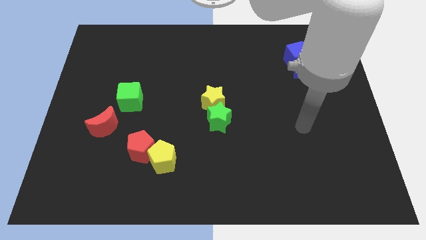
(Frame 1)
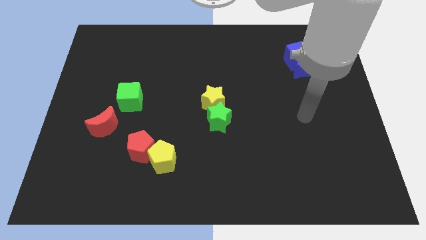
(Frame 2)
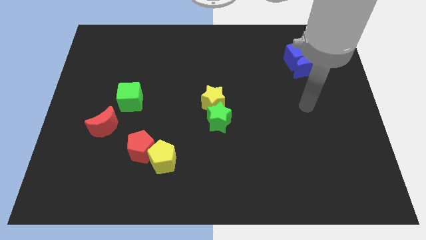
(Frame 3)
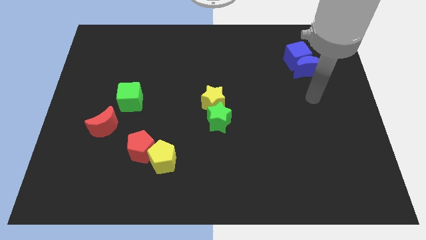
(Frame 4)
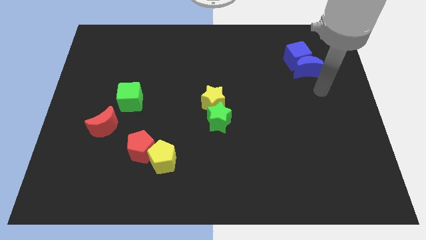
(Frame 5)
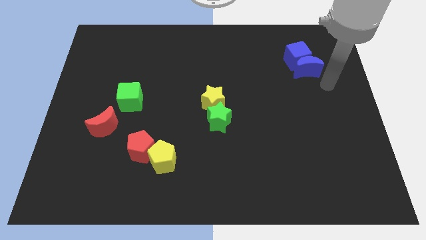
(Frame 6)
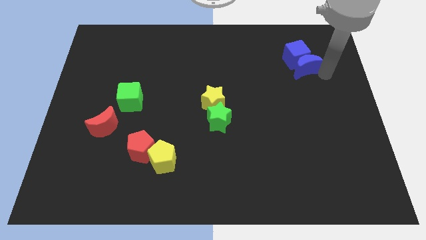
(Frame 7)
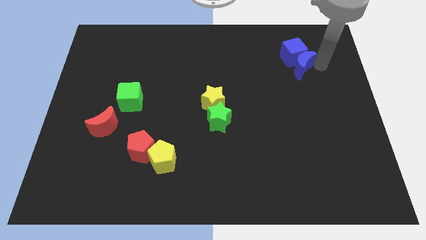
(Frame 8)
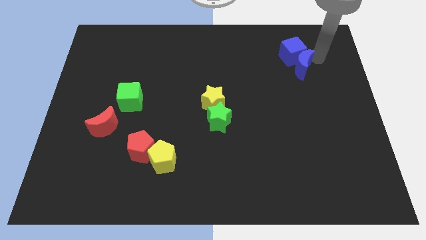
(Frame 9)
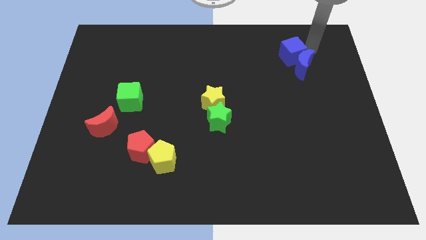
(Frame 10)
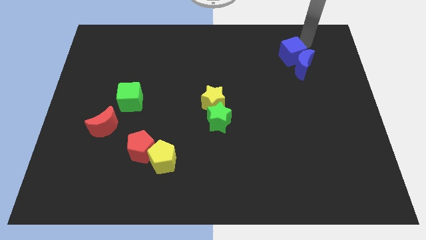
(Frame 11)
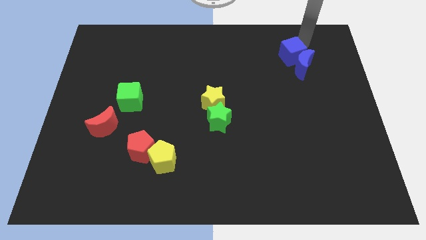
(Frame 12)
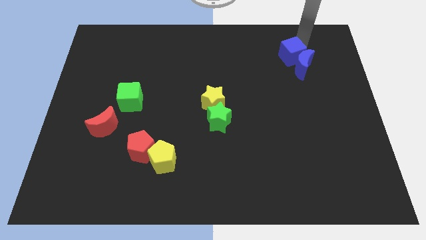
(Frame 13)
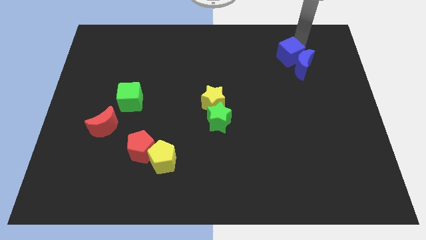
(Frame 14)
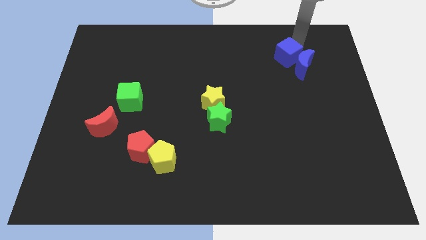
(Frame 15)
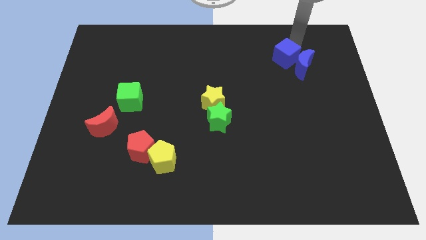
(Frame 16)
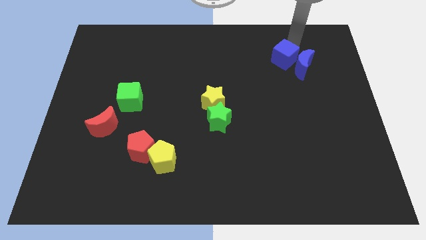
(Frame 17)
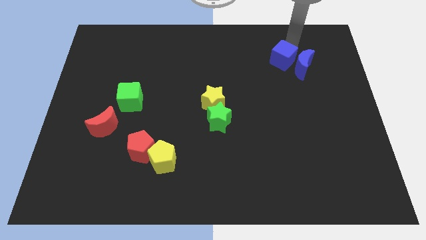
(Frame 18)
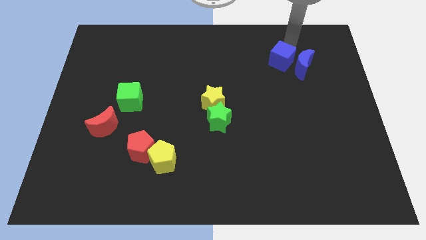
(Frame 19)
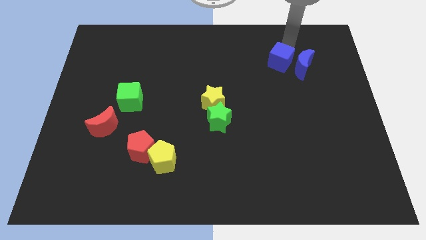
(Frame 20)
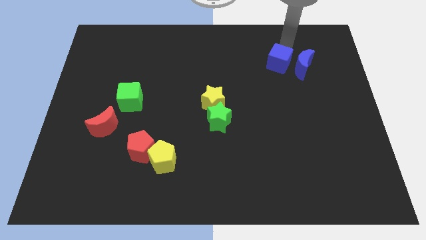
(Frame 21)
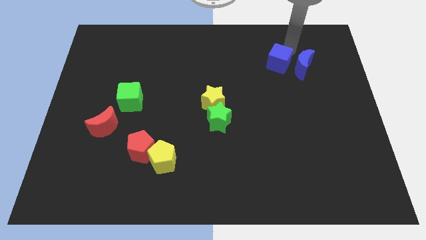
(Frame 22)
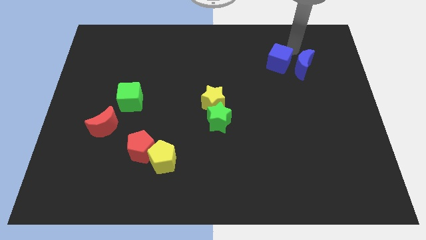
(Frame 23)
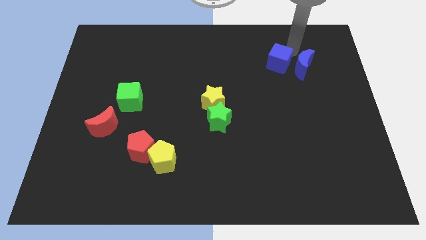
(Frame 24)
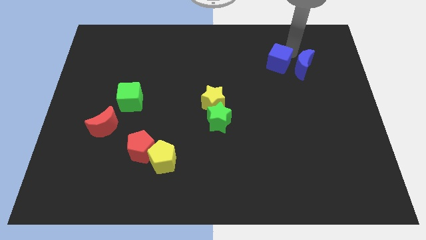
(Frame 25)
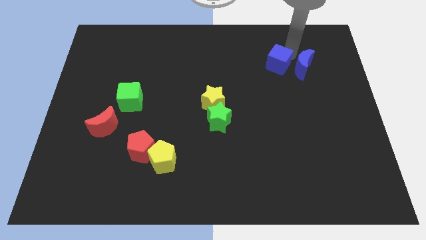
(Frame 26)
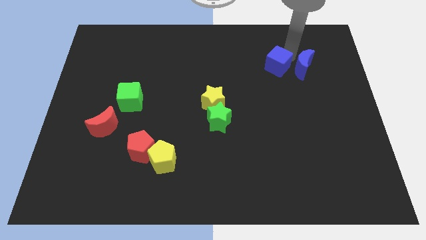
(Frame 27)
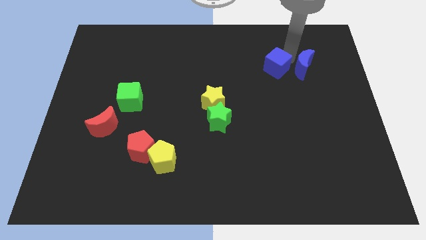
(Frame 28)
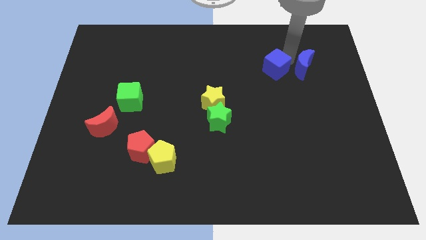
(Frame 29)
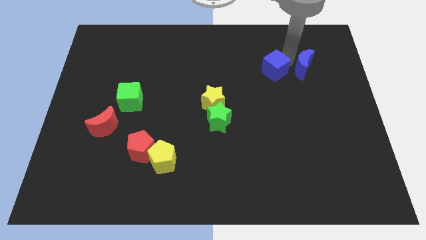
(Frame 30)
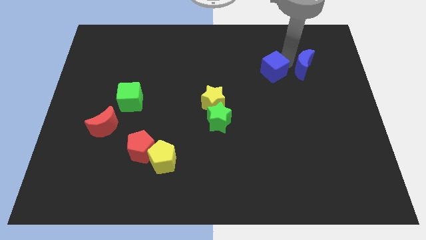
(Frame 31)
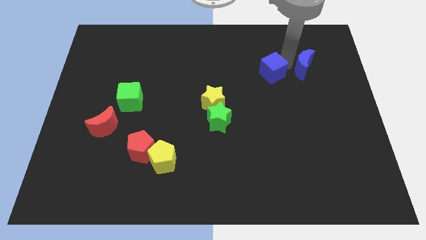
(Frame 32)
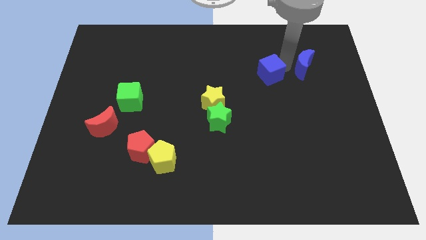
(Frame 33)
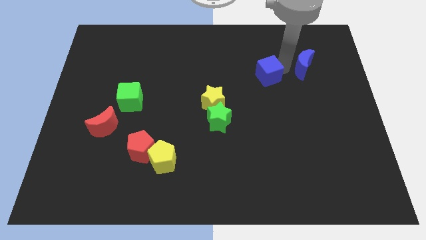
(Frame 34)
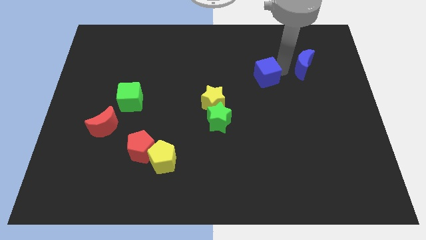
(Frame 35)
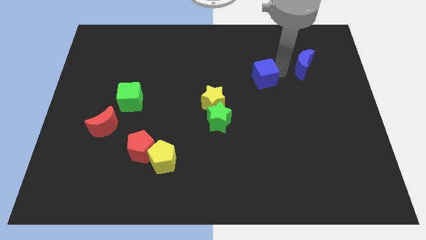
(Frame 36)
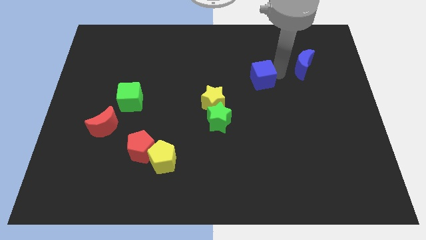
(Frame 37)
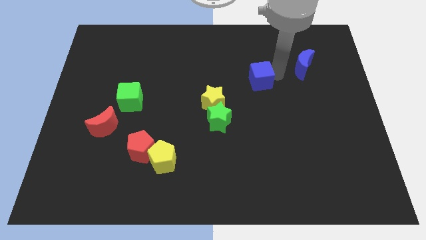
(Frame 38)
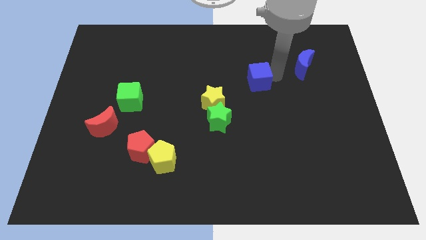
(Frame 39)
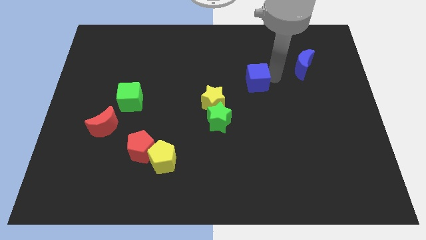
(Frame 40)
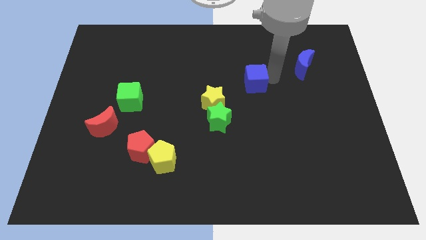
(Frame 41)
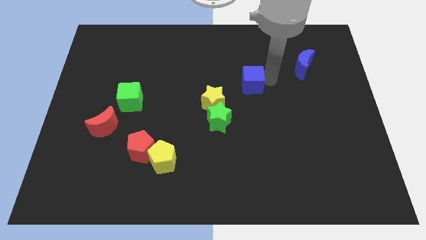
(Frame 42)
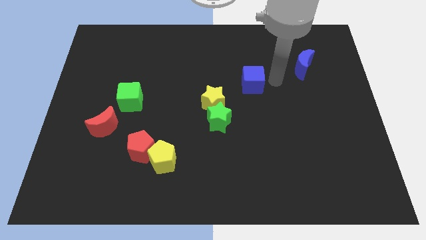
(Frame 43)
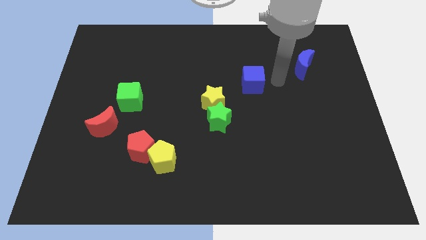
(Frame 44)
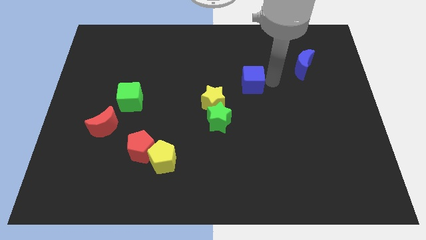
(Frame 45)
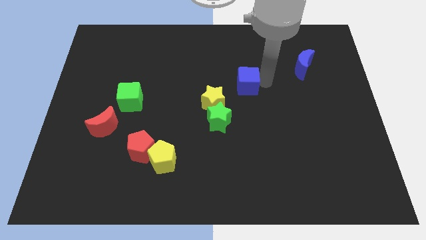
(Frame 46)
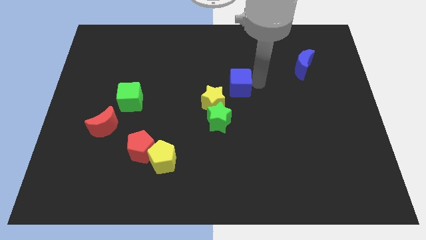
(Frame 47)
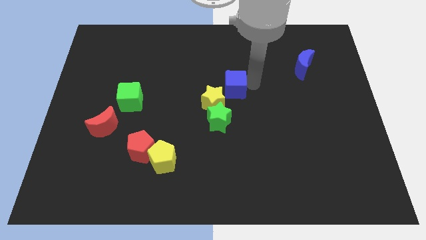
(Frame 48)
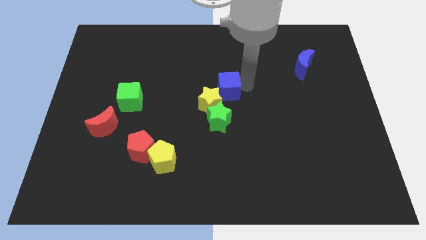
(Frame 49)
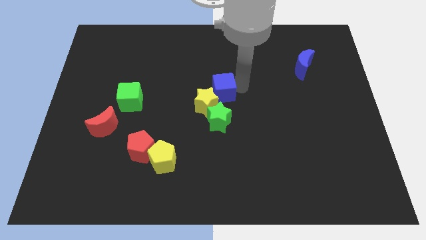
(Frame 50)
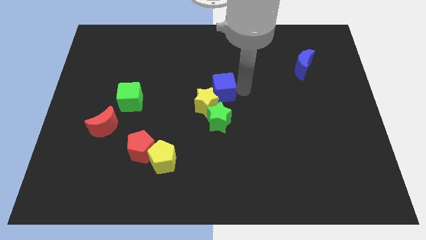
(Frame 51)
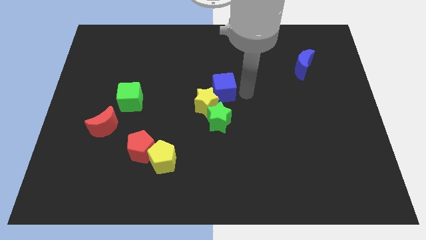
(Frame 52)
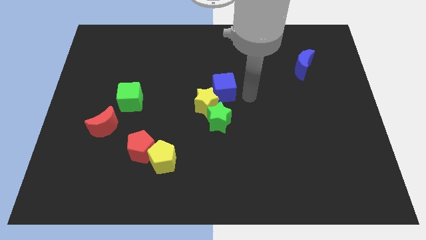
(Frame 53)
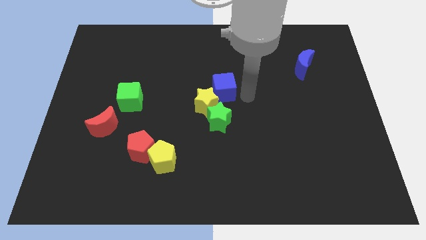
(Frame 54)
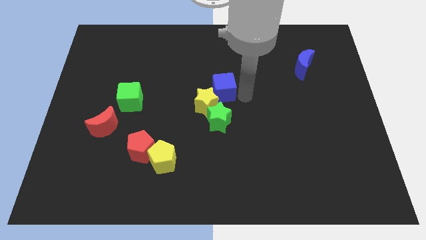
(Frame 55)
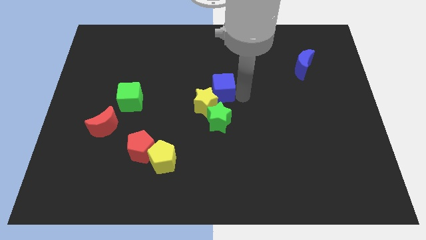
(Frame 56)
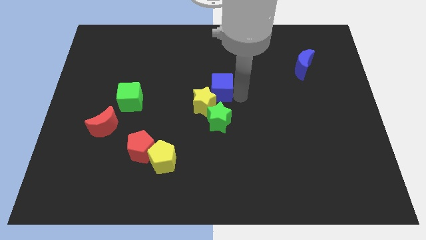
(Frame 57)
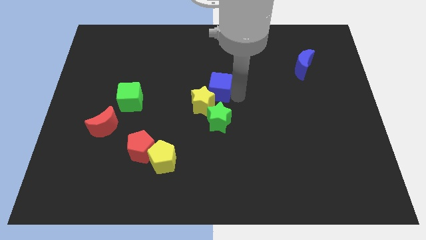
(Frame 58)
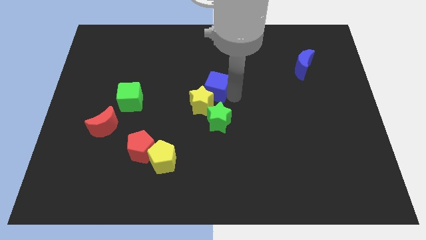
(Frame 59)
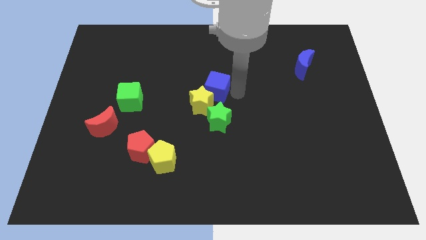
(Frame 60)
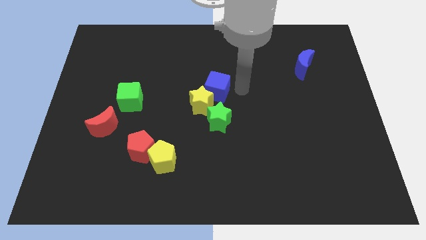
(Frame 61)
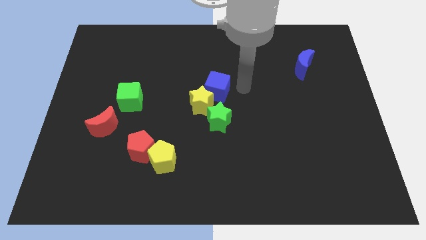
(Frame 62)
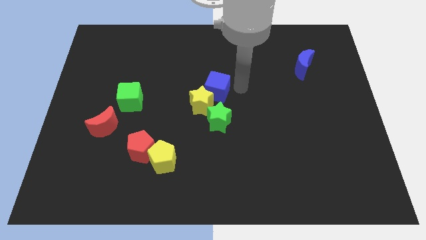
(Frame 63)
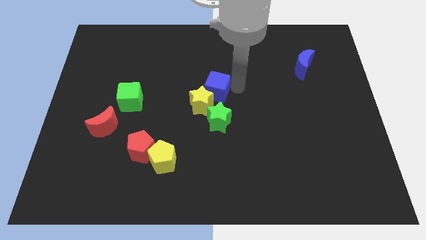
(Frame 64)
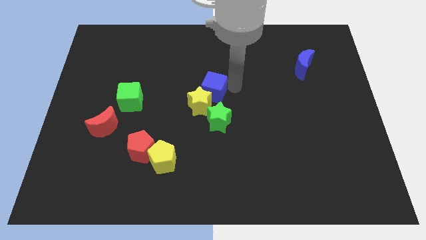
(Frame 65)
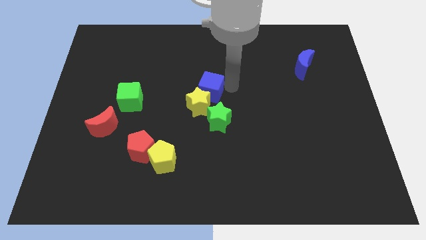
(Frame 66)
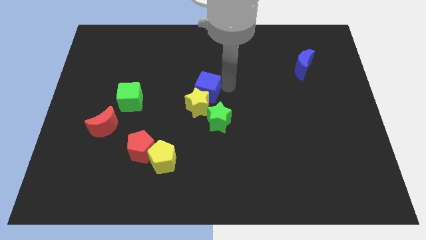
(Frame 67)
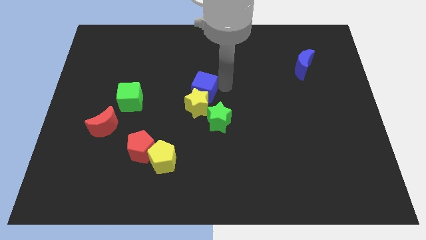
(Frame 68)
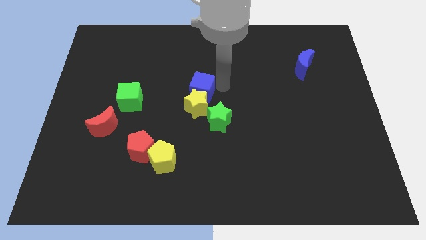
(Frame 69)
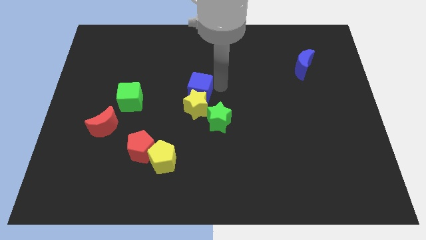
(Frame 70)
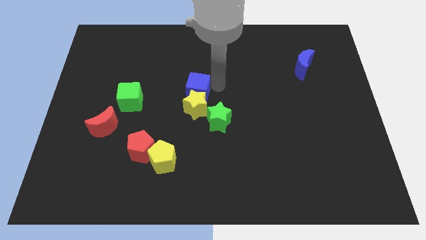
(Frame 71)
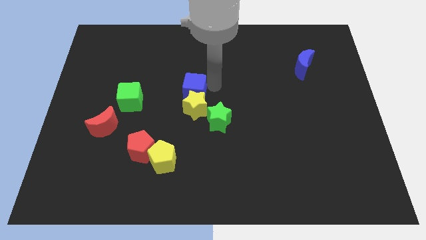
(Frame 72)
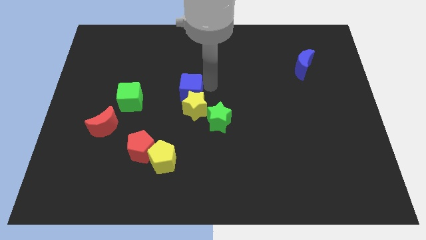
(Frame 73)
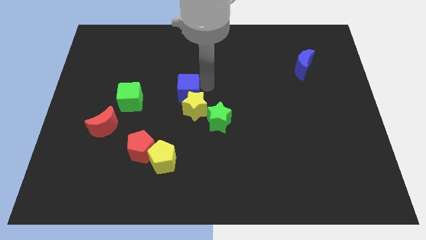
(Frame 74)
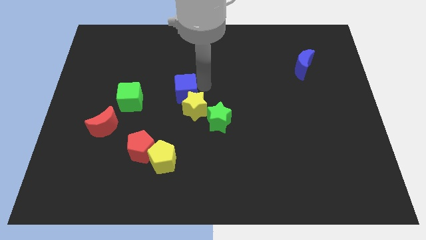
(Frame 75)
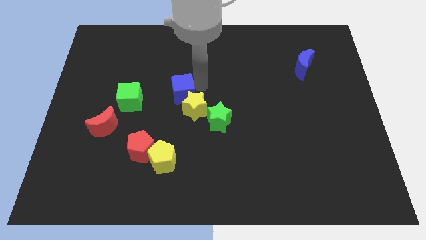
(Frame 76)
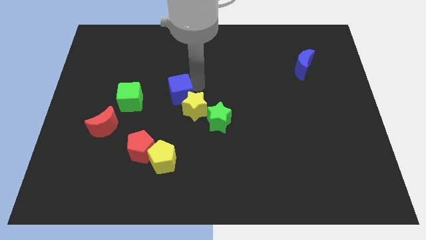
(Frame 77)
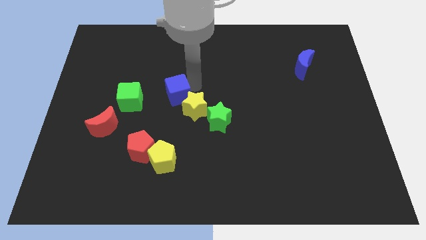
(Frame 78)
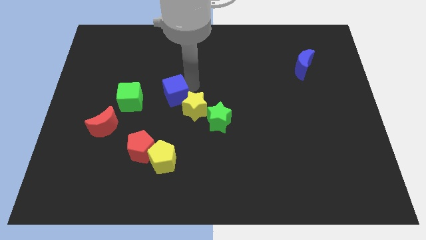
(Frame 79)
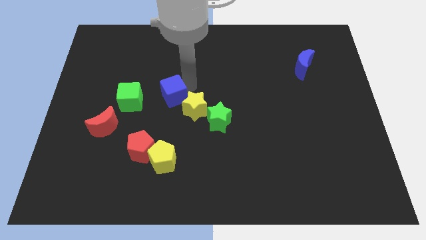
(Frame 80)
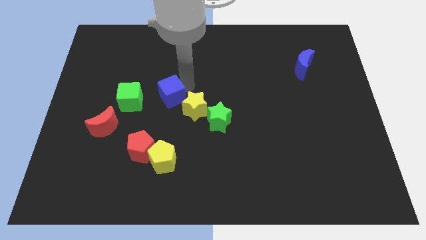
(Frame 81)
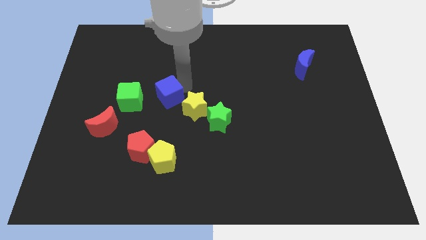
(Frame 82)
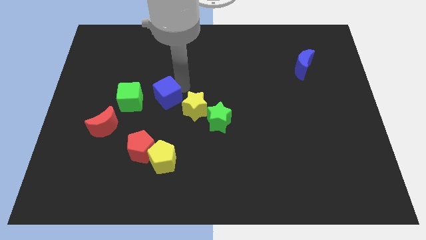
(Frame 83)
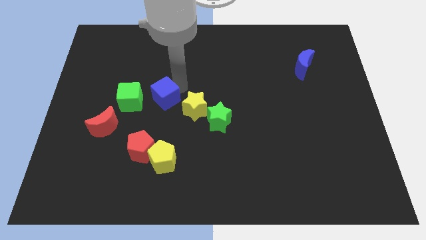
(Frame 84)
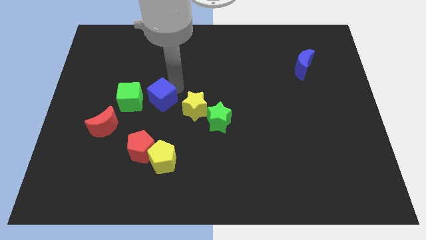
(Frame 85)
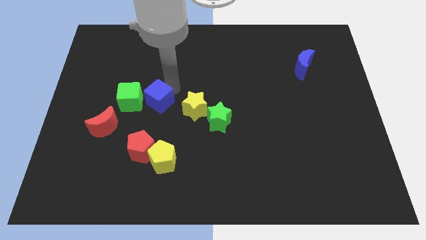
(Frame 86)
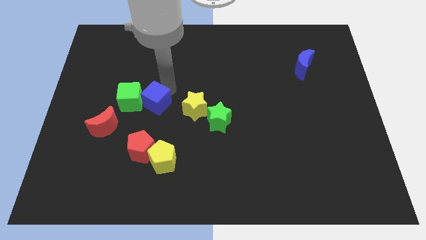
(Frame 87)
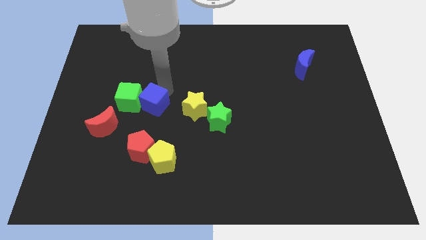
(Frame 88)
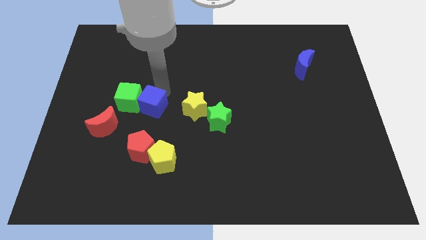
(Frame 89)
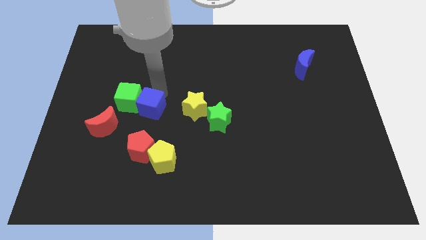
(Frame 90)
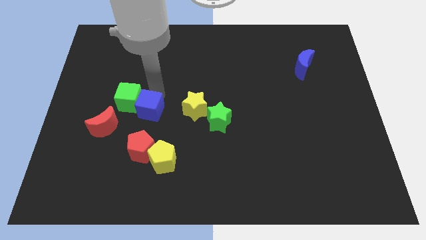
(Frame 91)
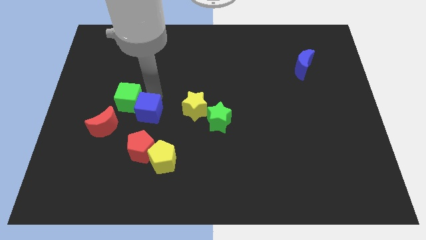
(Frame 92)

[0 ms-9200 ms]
push the blue cube right of the red moon
